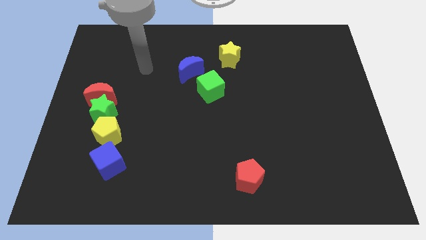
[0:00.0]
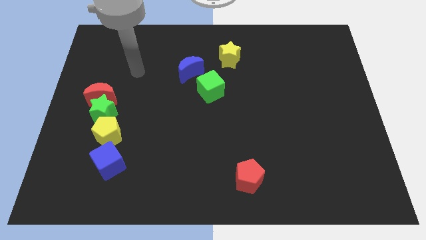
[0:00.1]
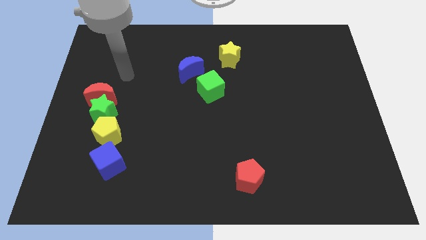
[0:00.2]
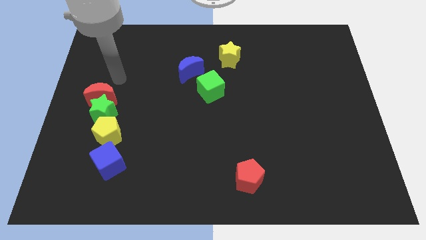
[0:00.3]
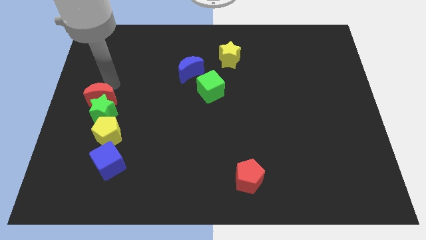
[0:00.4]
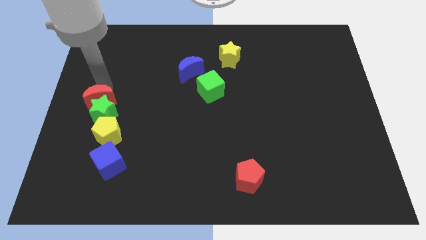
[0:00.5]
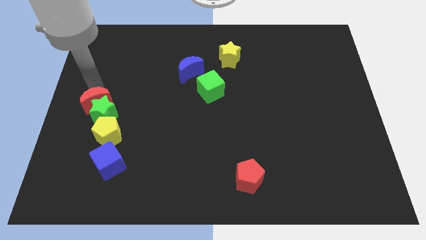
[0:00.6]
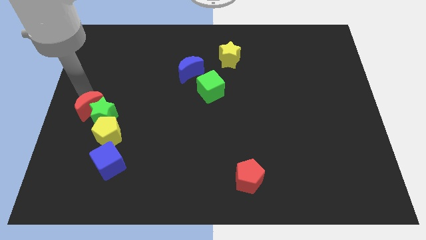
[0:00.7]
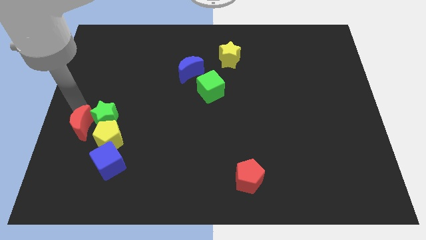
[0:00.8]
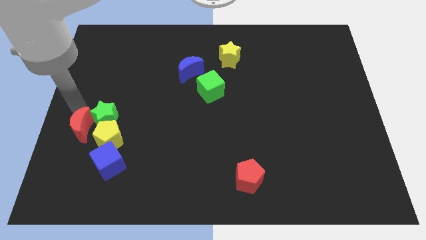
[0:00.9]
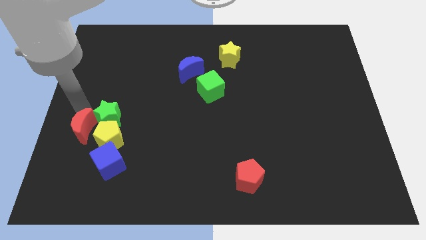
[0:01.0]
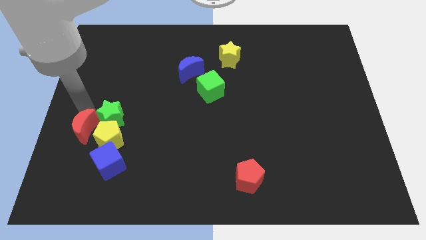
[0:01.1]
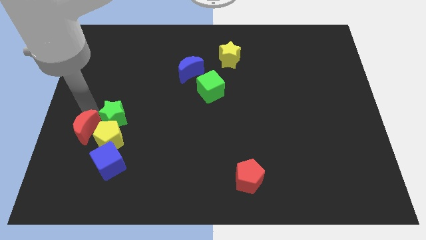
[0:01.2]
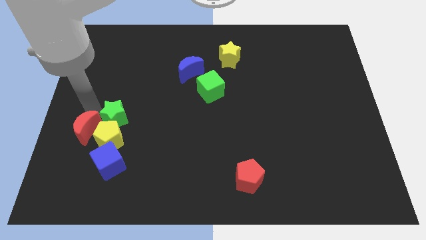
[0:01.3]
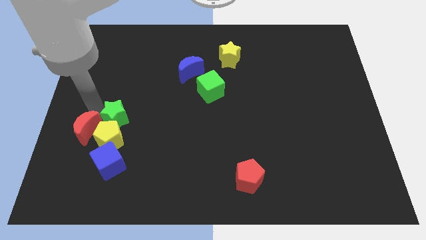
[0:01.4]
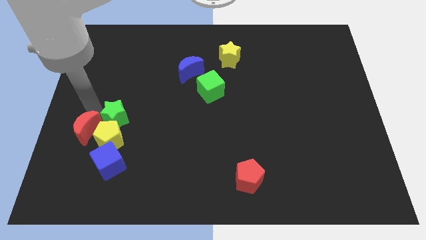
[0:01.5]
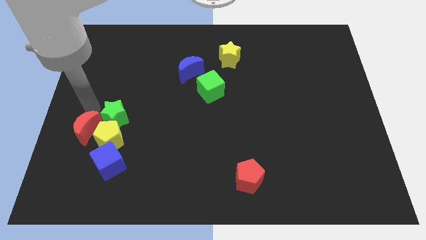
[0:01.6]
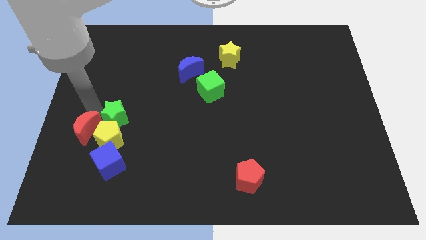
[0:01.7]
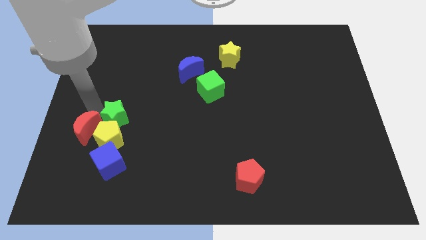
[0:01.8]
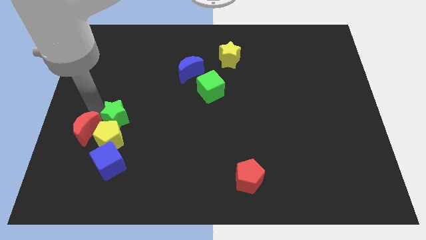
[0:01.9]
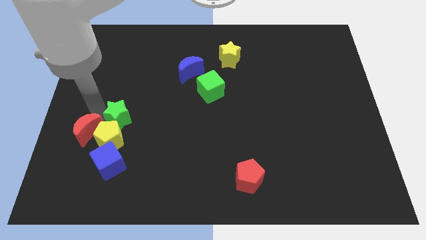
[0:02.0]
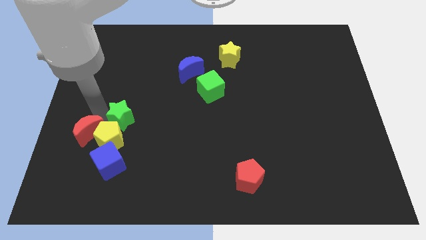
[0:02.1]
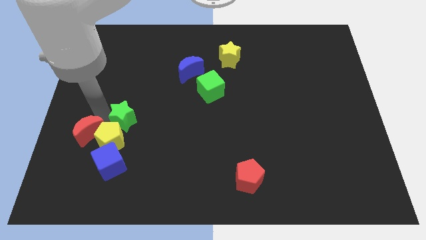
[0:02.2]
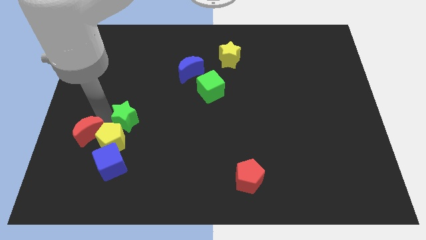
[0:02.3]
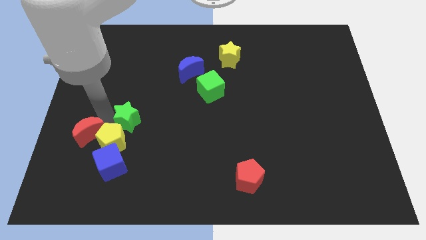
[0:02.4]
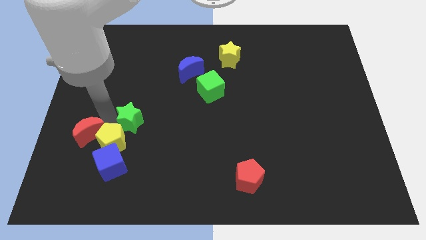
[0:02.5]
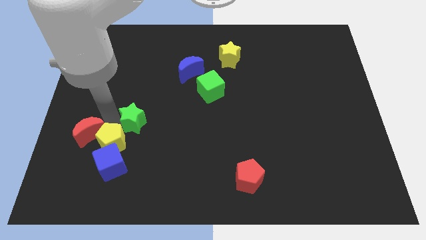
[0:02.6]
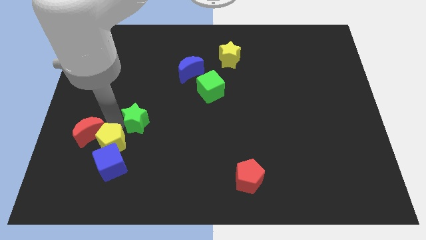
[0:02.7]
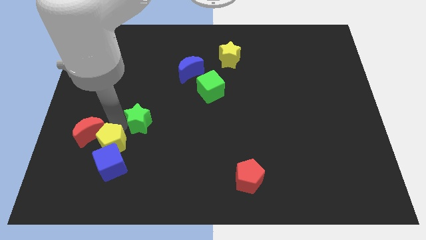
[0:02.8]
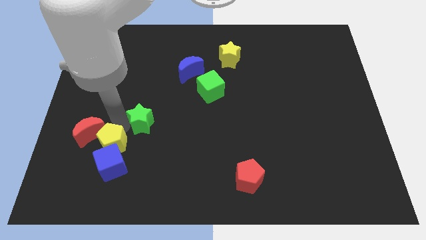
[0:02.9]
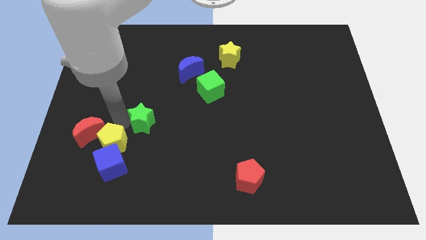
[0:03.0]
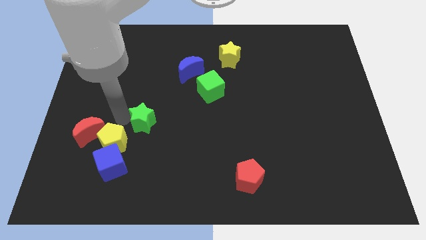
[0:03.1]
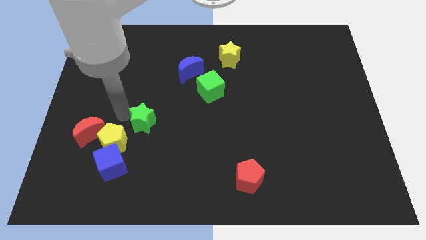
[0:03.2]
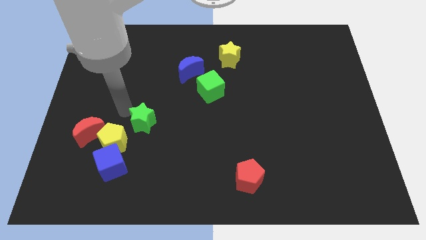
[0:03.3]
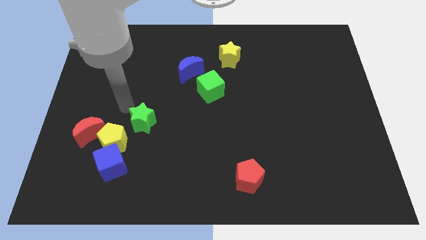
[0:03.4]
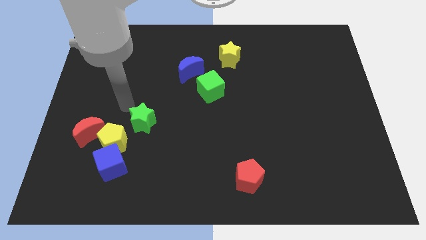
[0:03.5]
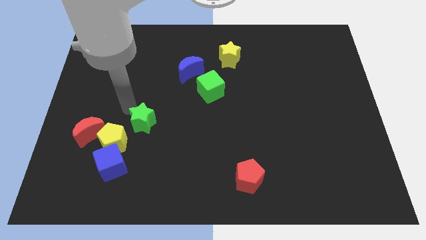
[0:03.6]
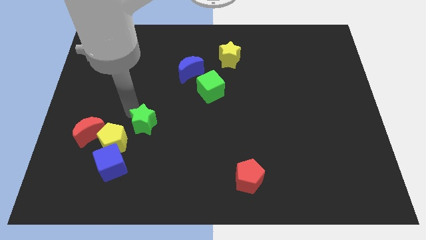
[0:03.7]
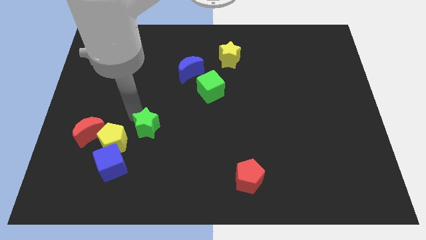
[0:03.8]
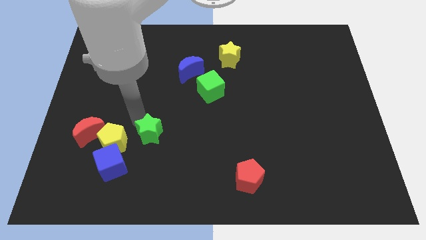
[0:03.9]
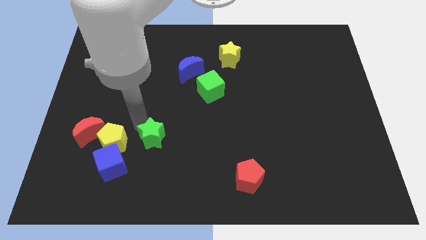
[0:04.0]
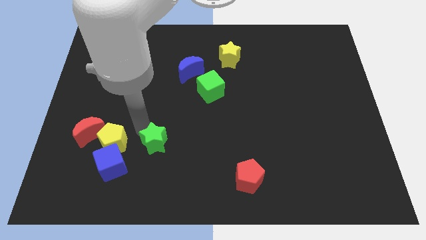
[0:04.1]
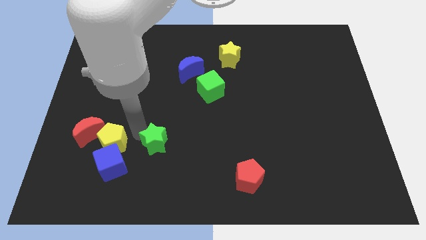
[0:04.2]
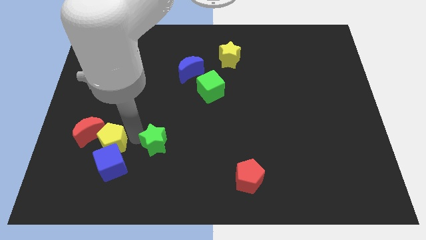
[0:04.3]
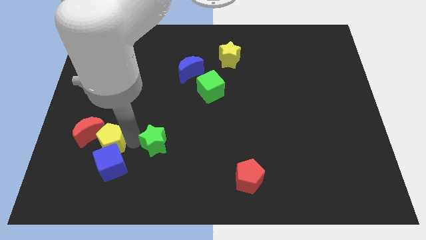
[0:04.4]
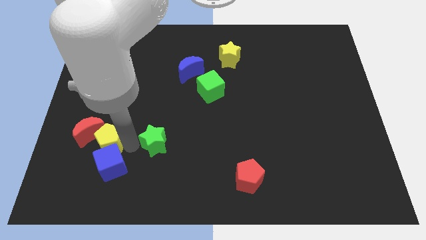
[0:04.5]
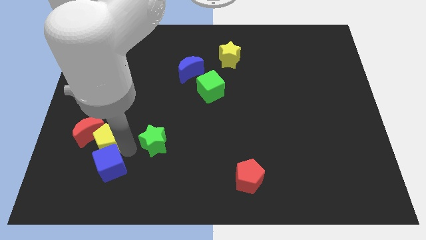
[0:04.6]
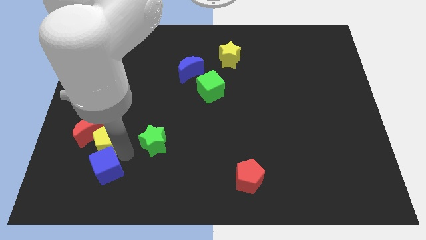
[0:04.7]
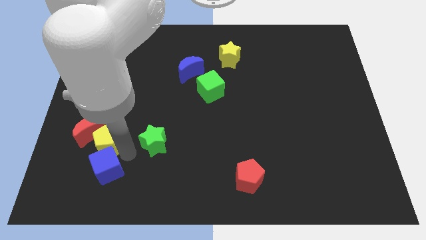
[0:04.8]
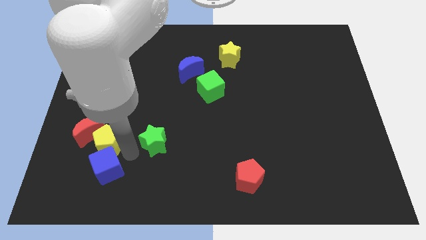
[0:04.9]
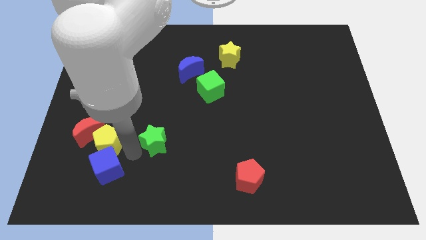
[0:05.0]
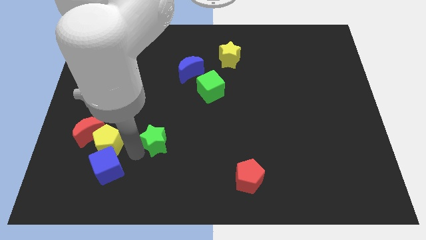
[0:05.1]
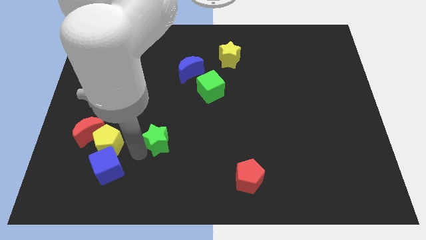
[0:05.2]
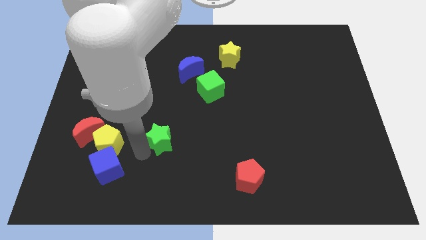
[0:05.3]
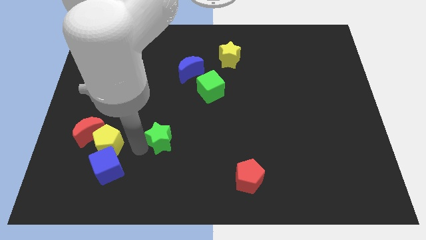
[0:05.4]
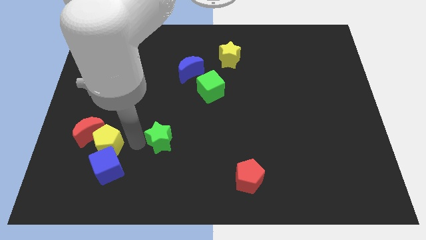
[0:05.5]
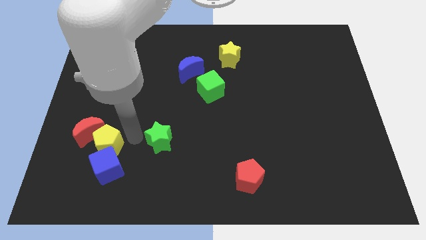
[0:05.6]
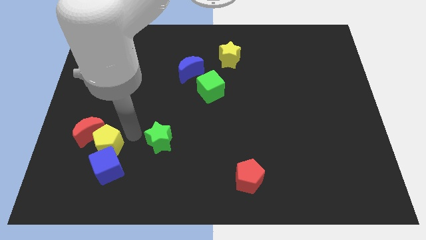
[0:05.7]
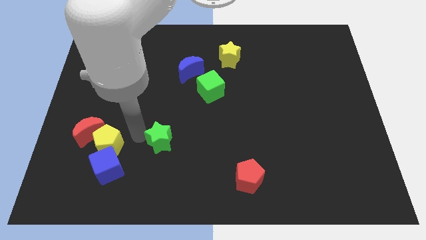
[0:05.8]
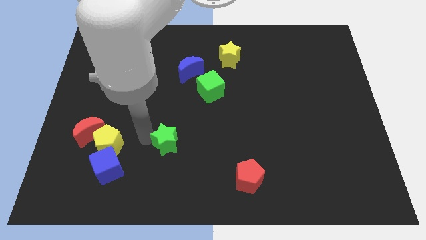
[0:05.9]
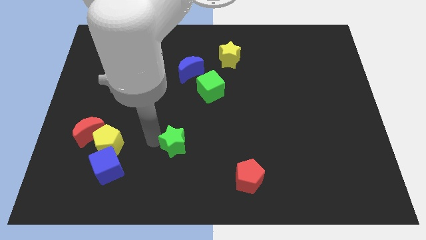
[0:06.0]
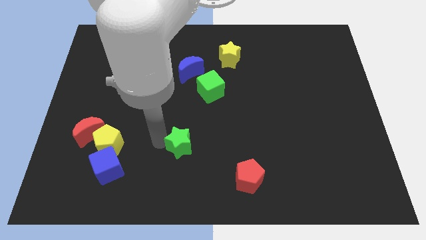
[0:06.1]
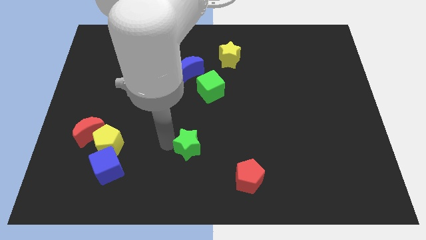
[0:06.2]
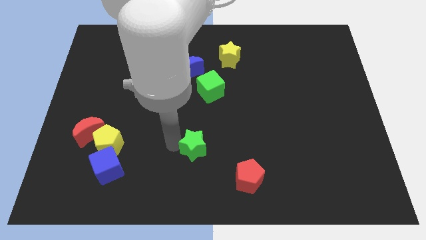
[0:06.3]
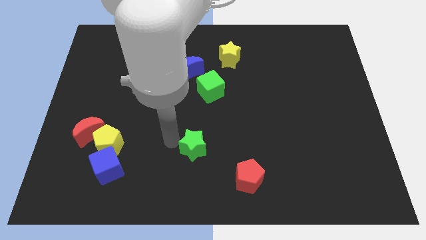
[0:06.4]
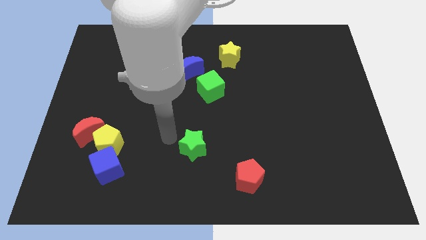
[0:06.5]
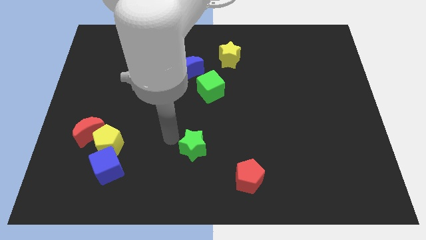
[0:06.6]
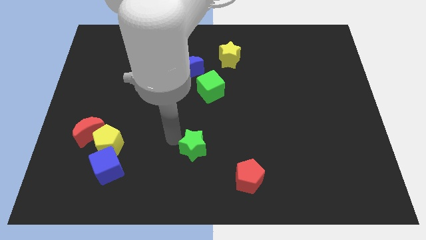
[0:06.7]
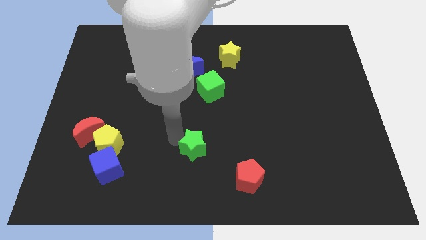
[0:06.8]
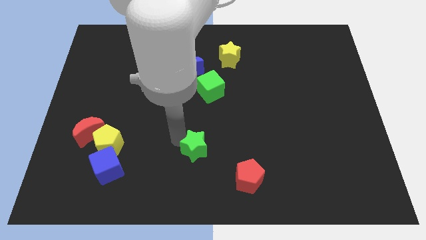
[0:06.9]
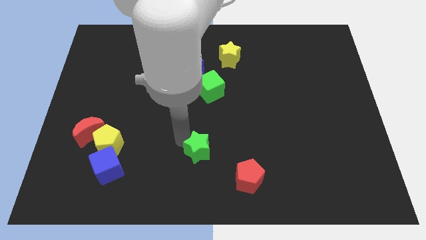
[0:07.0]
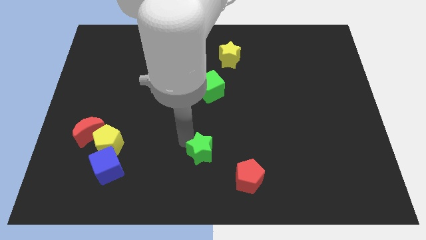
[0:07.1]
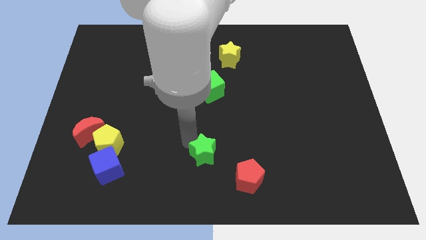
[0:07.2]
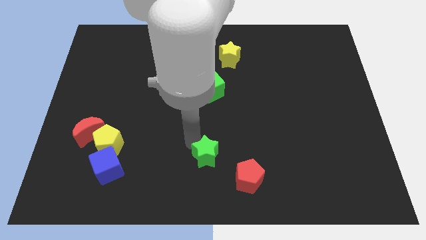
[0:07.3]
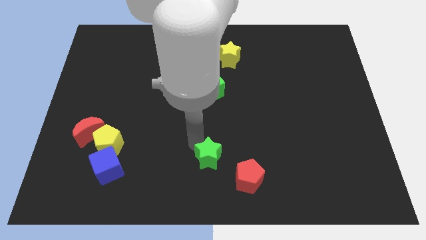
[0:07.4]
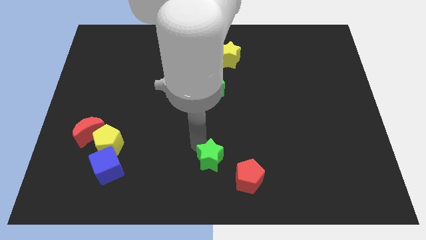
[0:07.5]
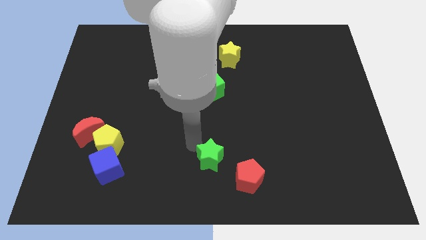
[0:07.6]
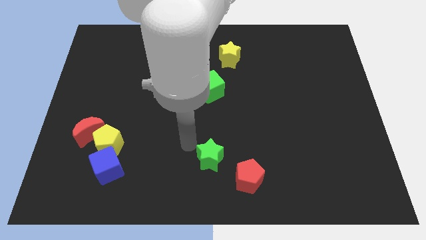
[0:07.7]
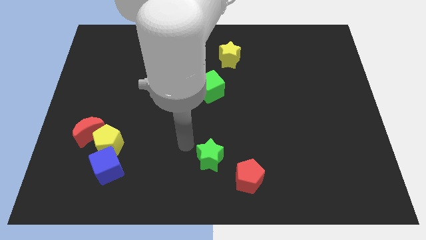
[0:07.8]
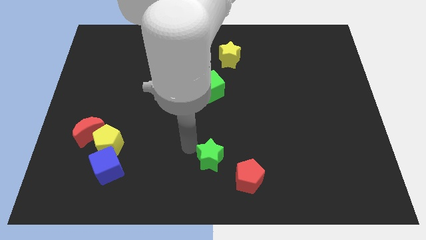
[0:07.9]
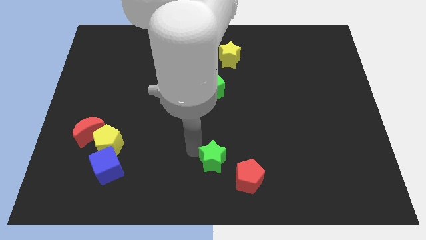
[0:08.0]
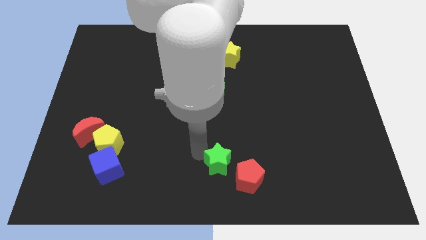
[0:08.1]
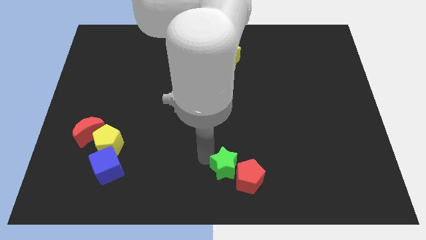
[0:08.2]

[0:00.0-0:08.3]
put the green star to the red pentagon
